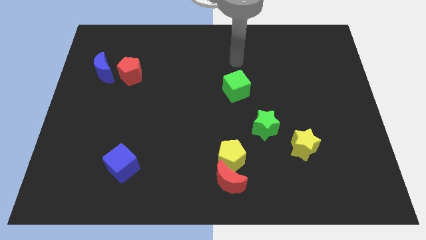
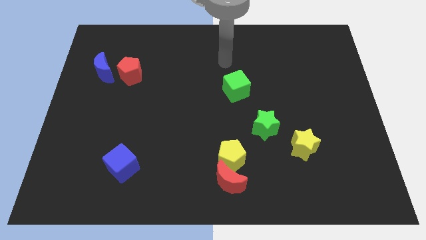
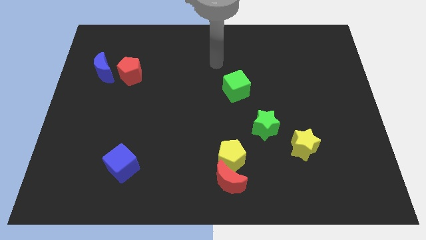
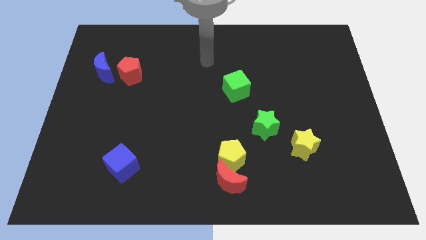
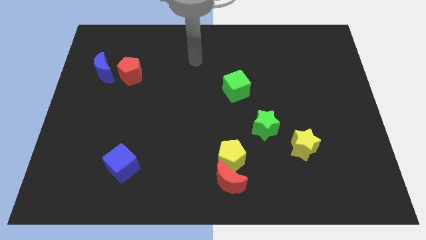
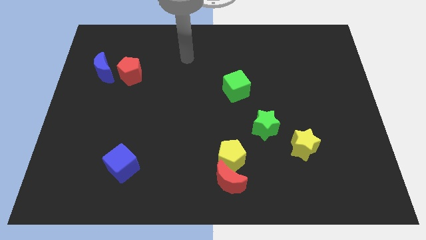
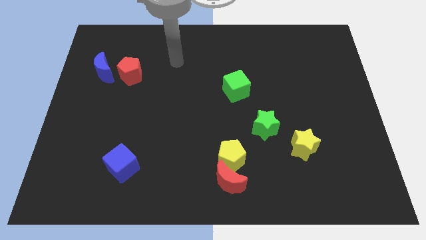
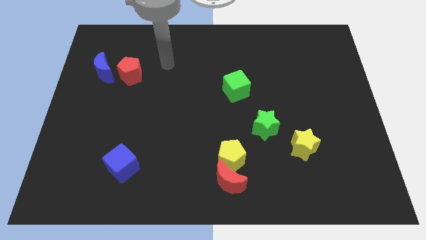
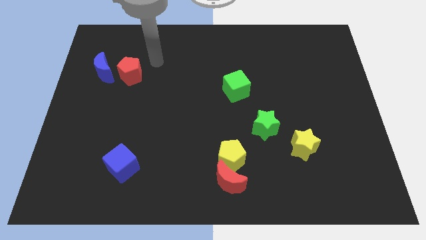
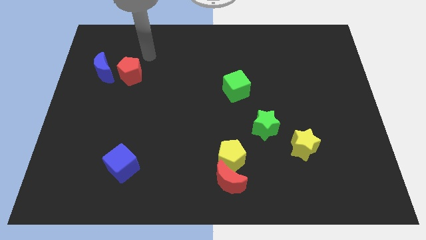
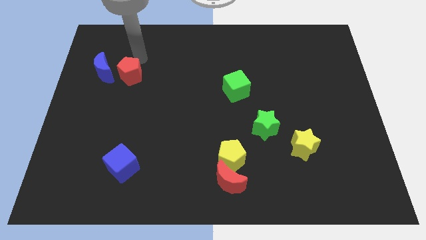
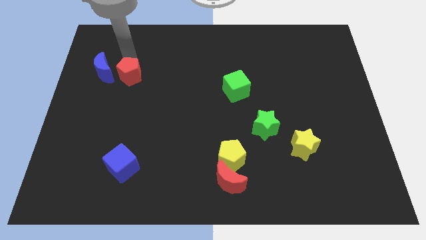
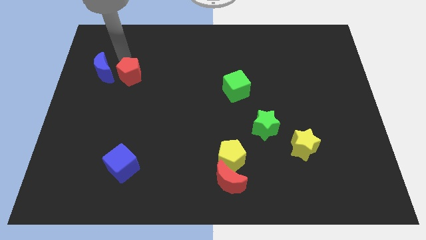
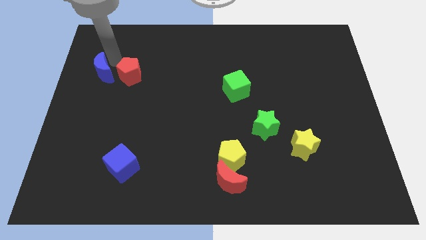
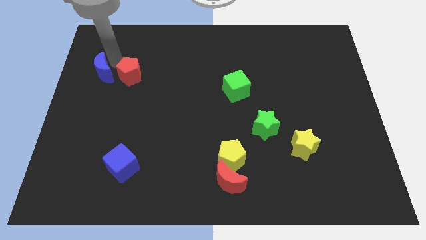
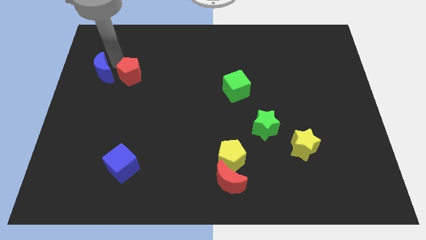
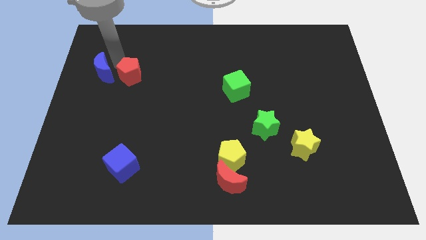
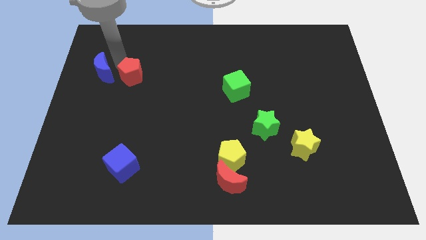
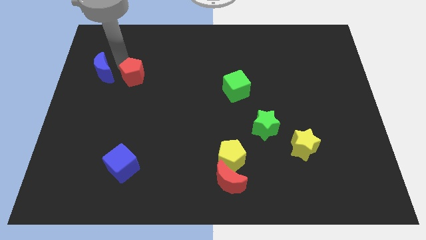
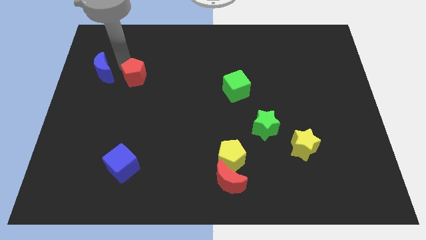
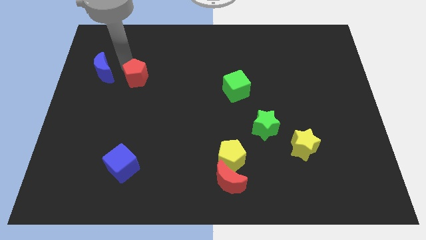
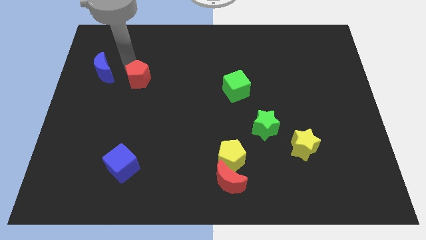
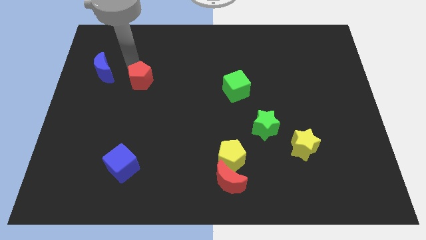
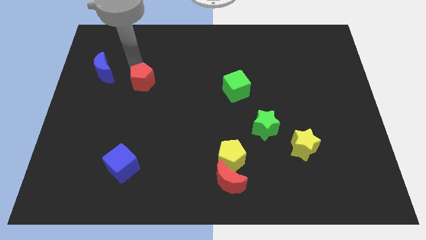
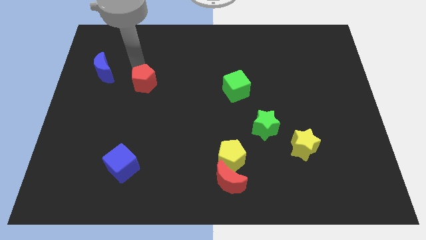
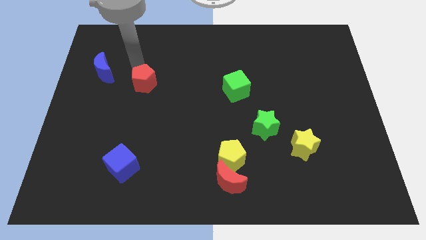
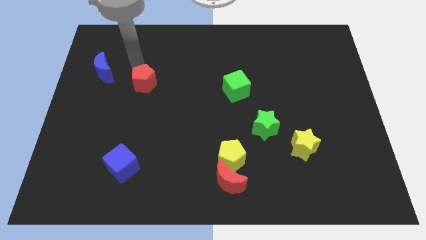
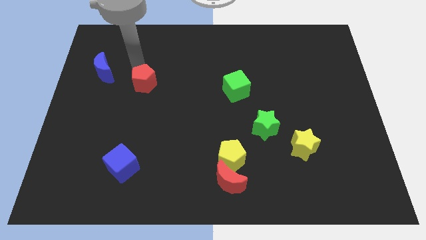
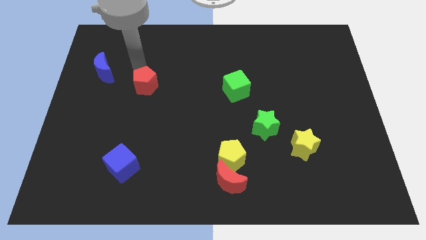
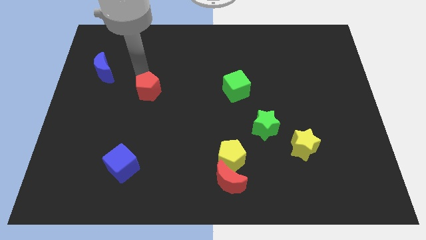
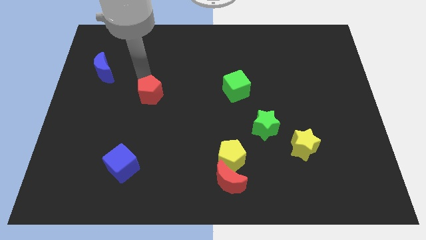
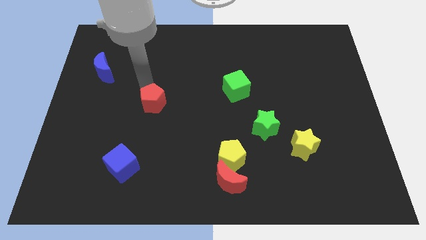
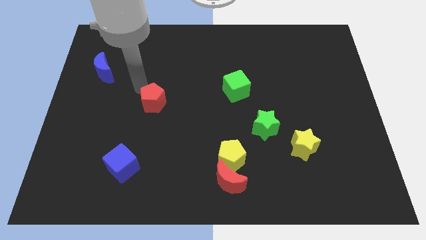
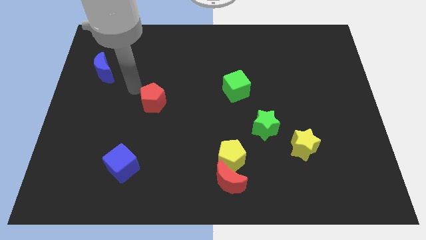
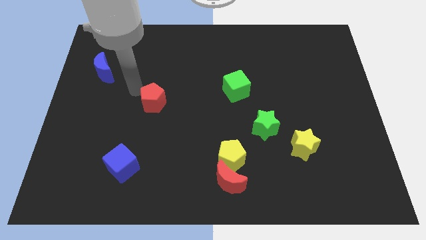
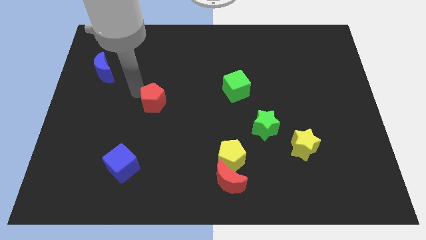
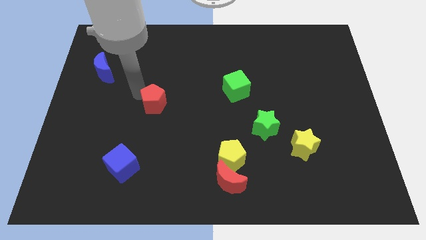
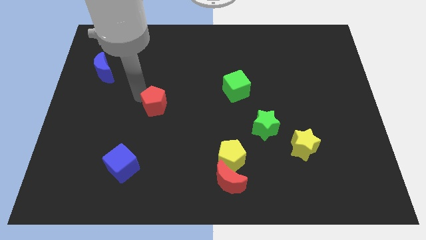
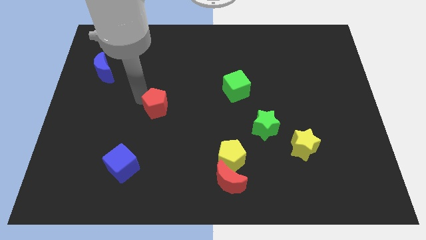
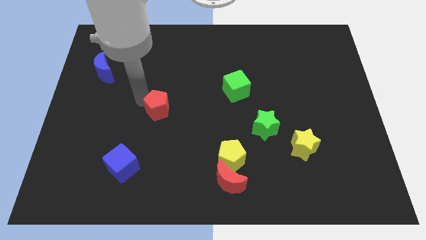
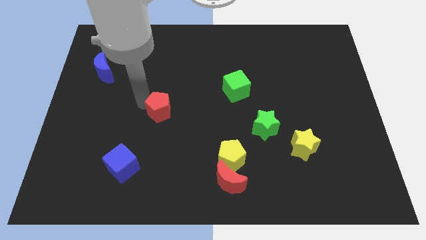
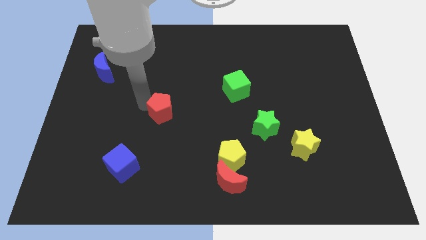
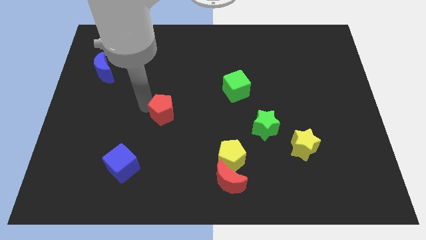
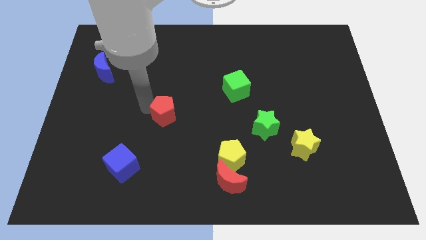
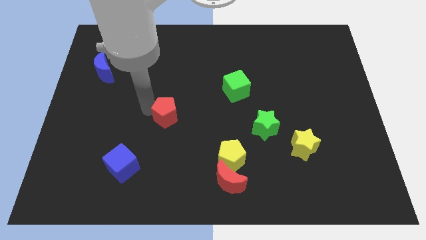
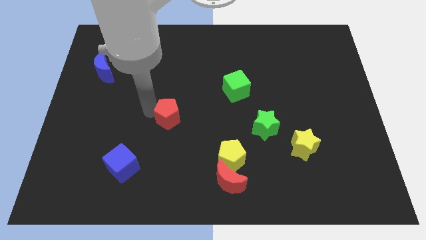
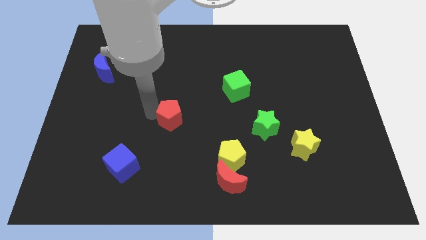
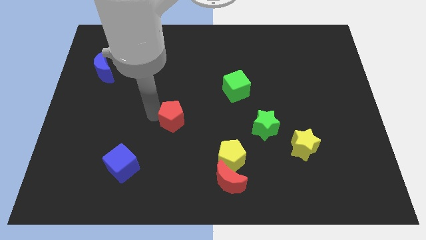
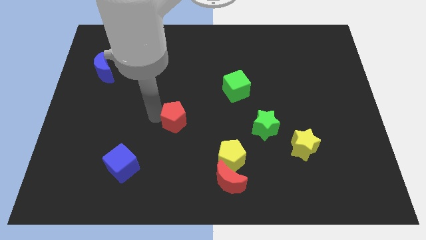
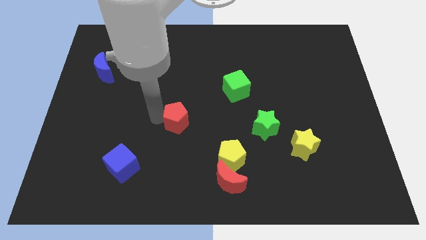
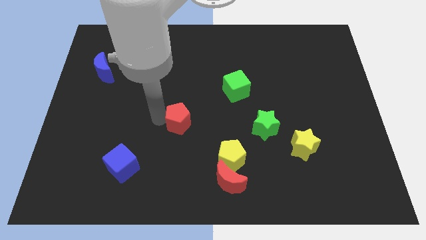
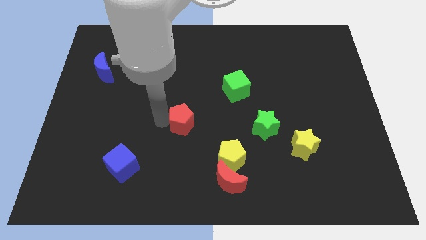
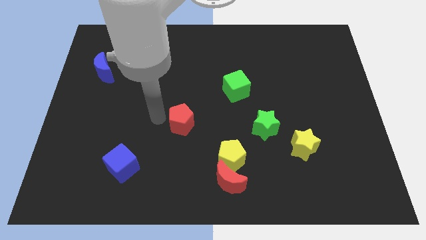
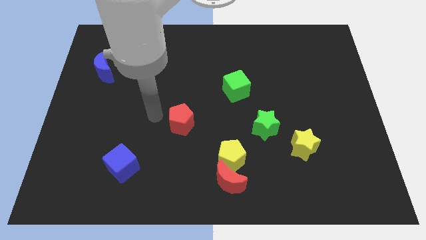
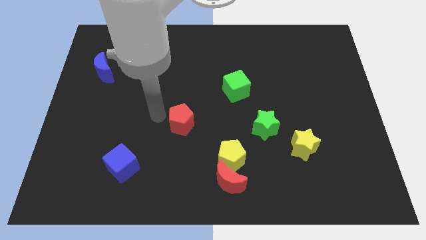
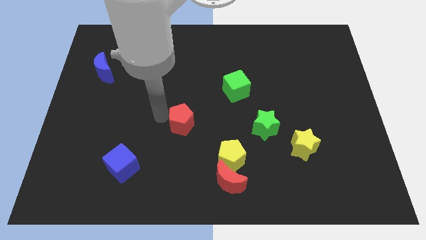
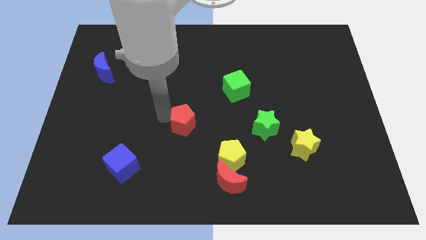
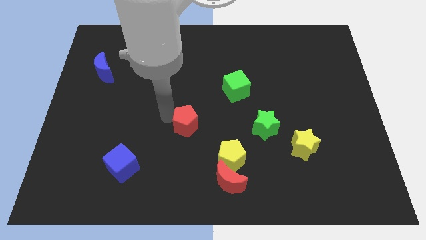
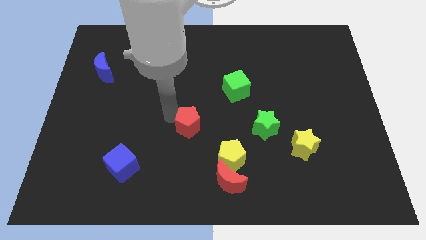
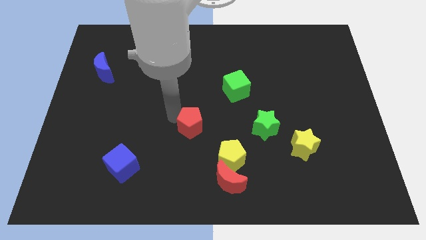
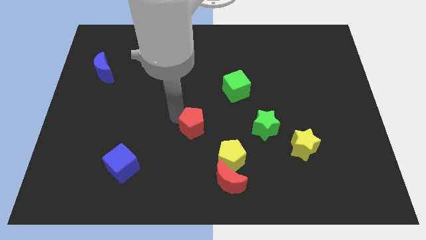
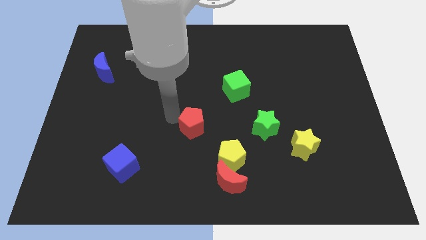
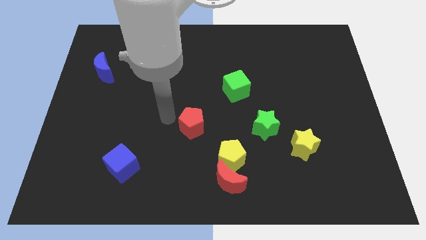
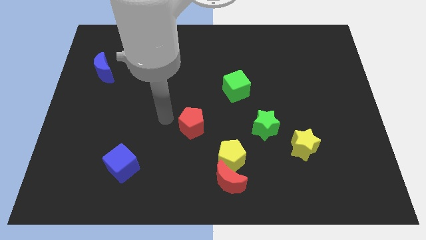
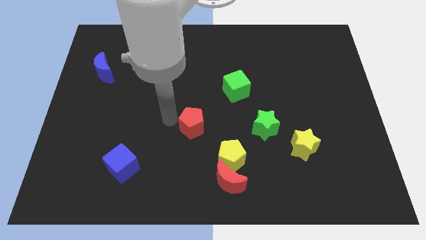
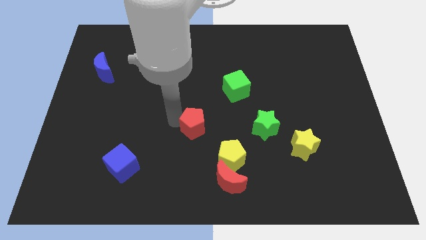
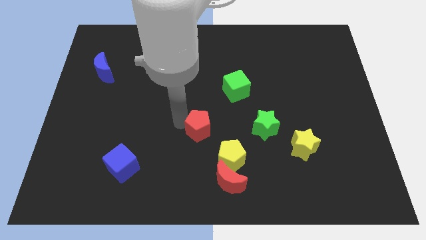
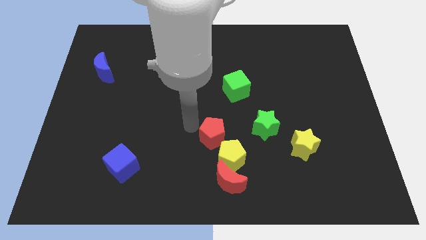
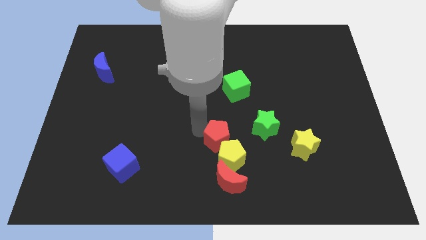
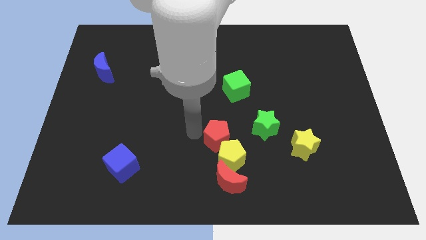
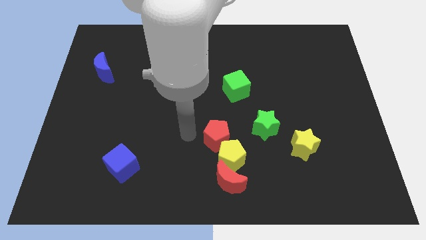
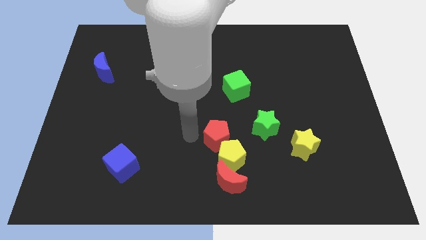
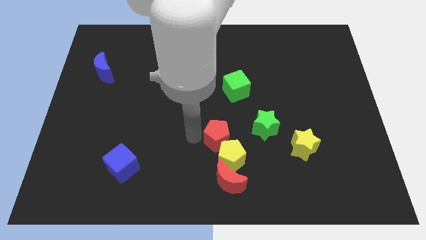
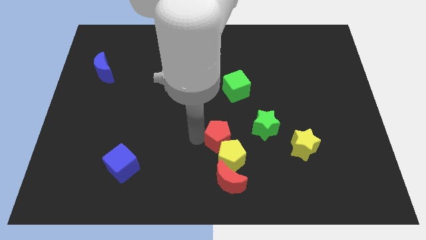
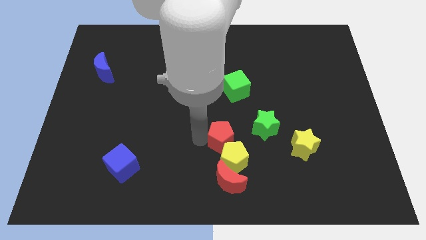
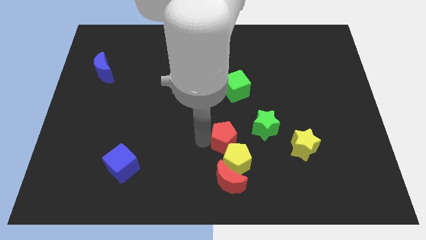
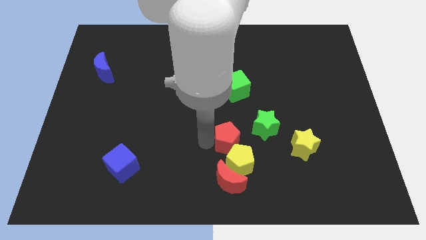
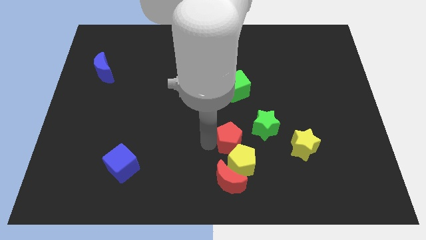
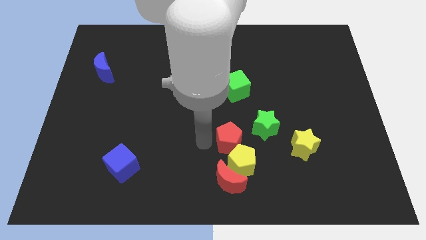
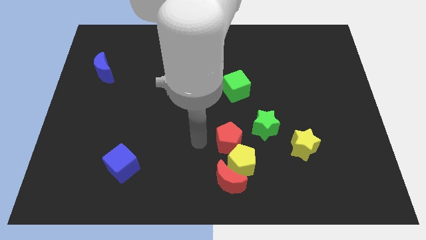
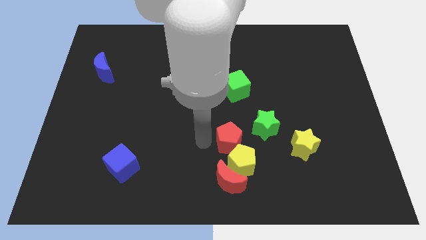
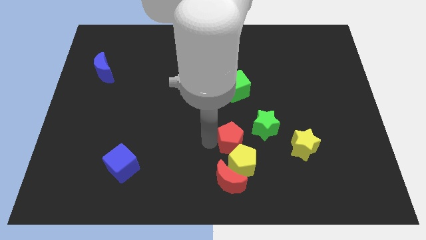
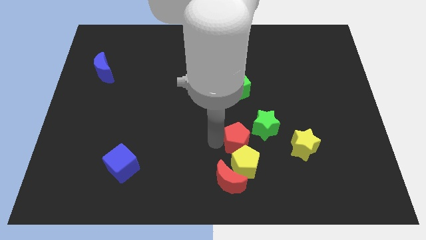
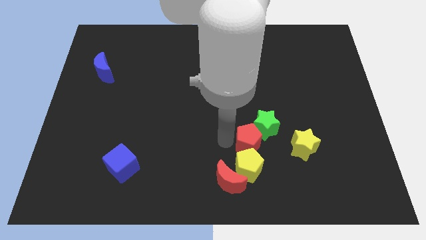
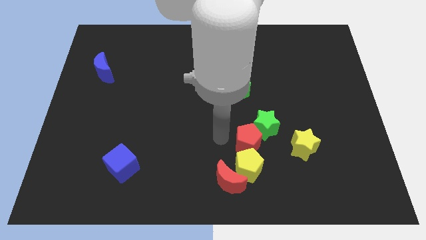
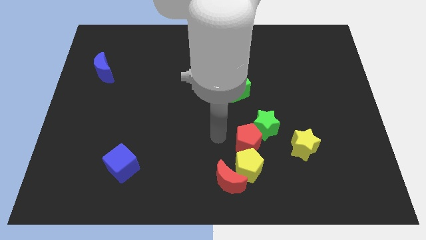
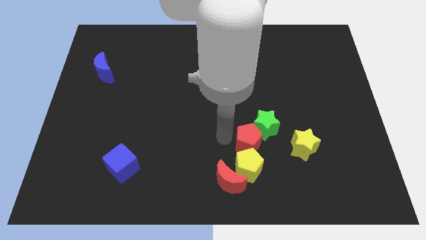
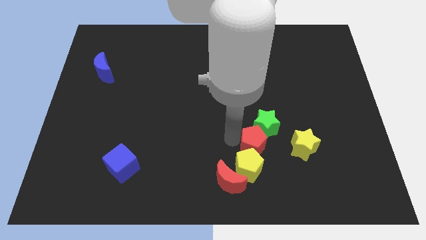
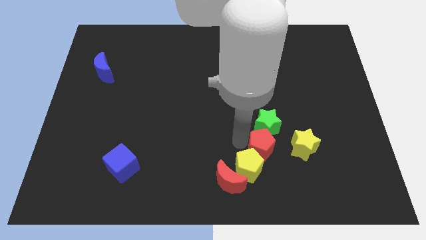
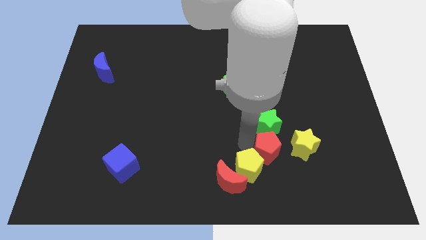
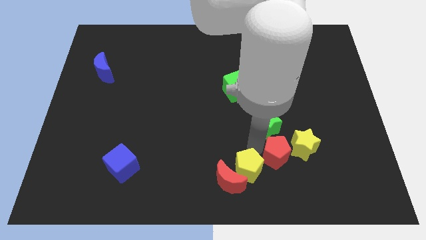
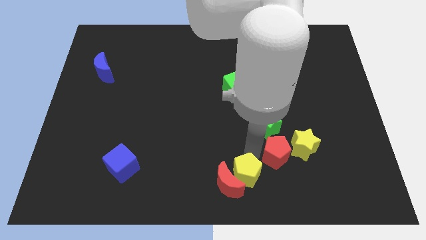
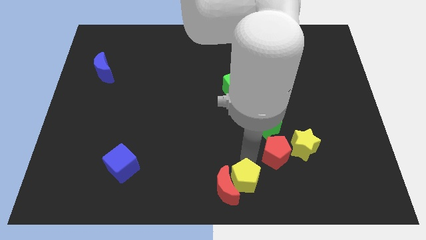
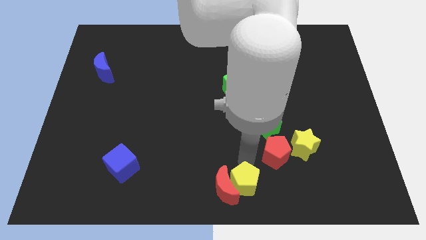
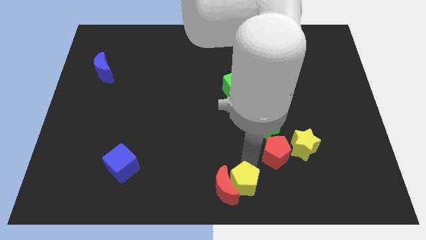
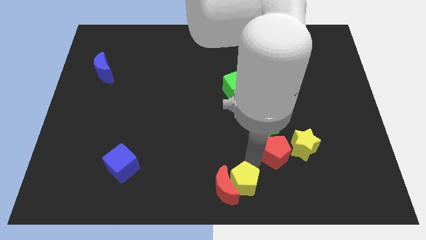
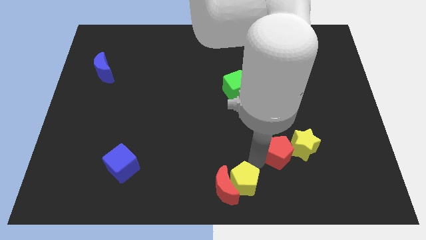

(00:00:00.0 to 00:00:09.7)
push the red pentagon to the yellow star
